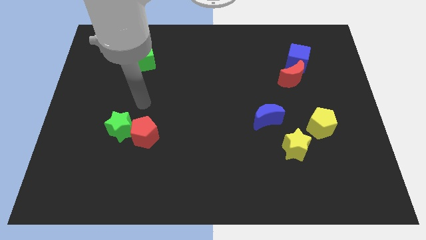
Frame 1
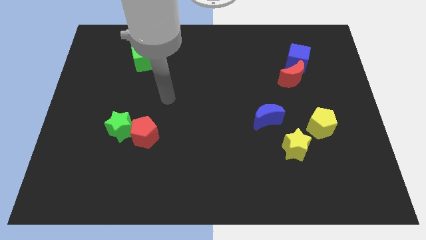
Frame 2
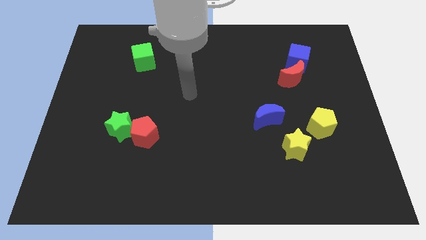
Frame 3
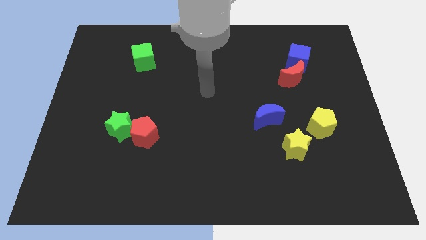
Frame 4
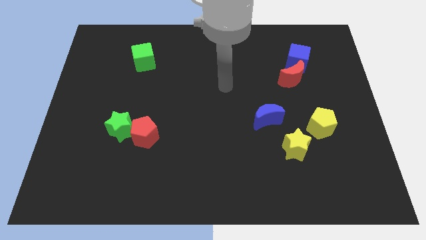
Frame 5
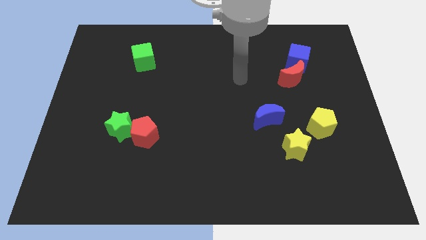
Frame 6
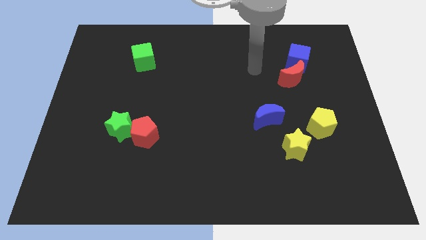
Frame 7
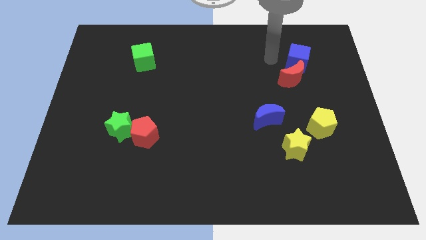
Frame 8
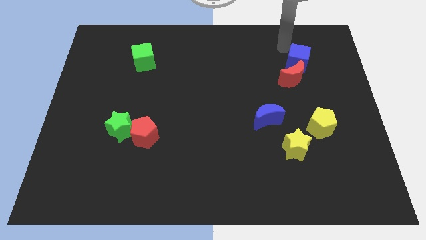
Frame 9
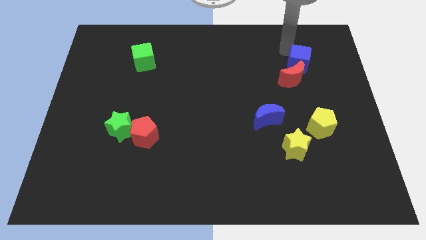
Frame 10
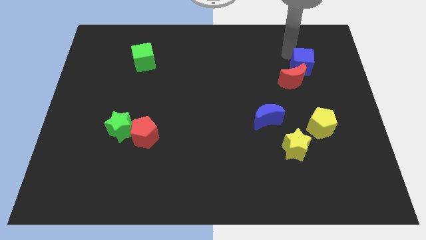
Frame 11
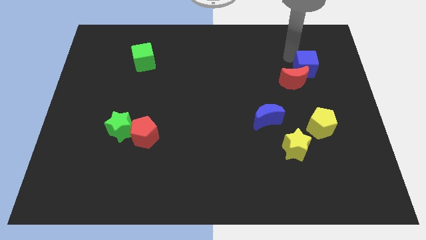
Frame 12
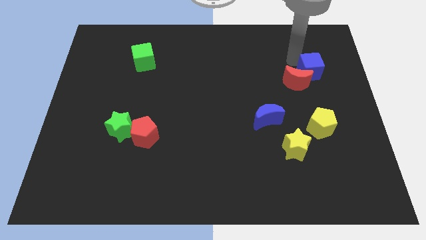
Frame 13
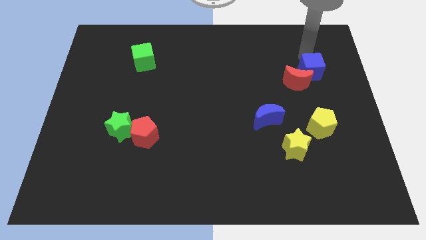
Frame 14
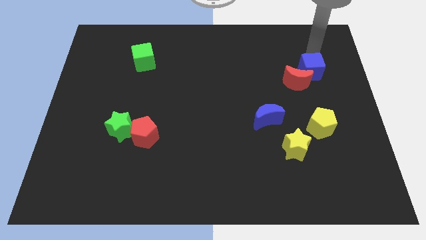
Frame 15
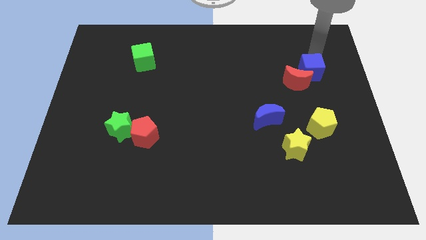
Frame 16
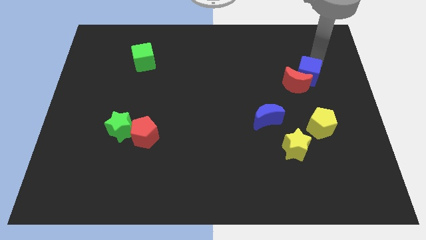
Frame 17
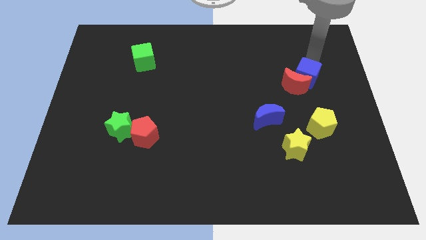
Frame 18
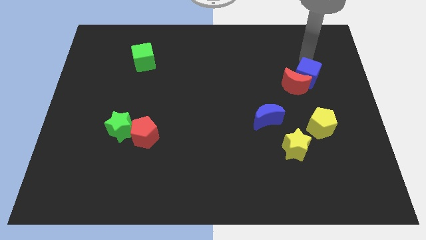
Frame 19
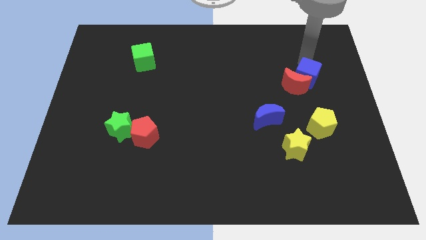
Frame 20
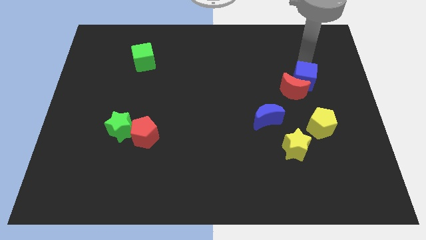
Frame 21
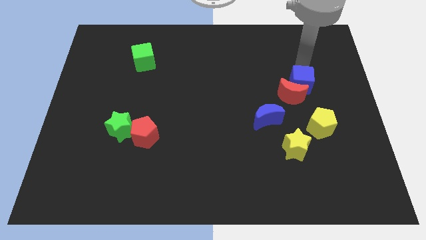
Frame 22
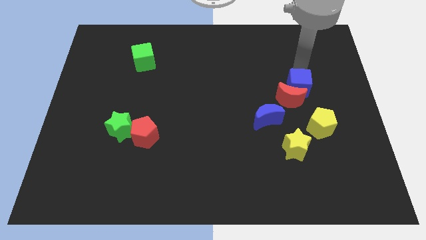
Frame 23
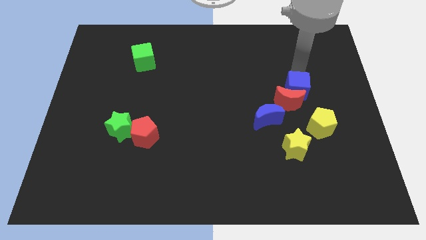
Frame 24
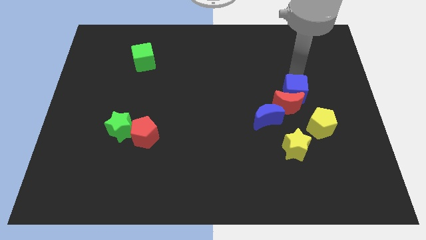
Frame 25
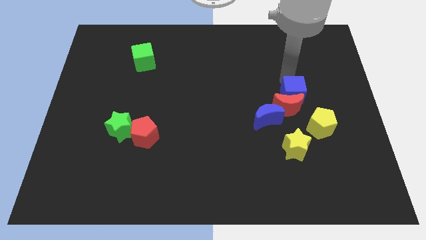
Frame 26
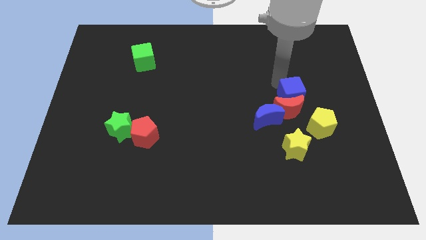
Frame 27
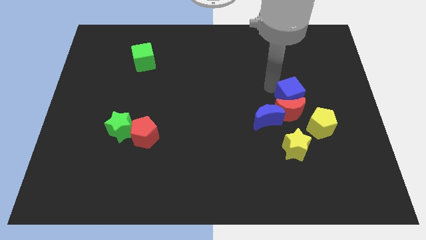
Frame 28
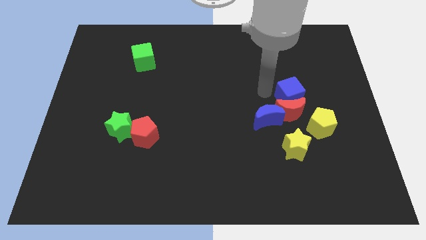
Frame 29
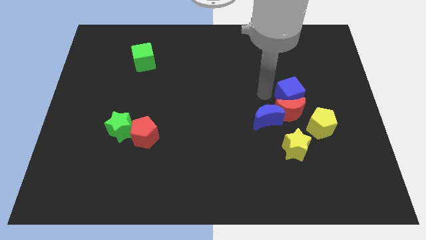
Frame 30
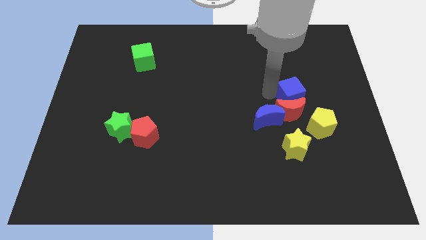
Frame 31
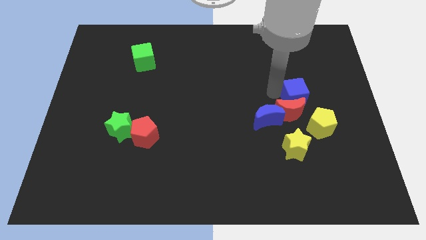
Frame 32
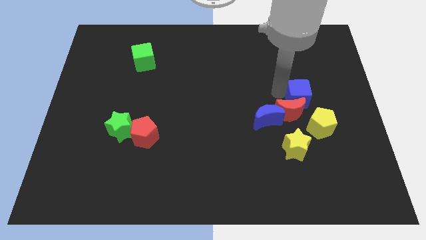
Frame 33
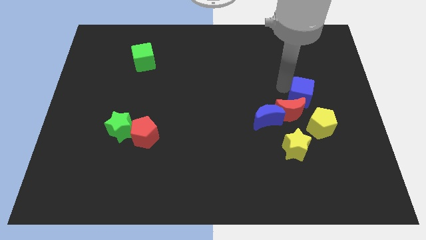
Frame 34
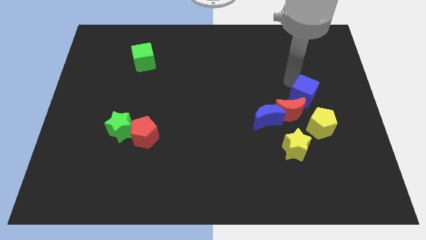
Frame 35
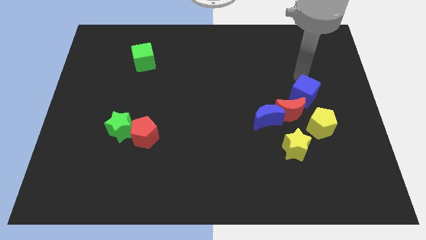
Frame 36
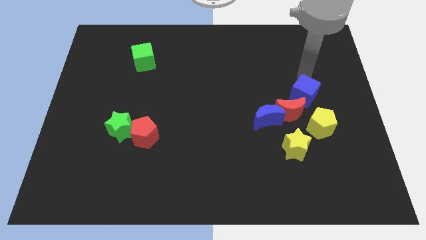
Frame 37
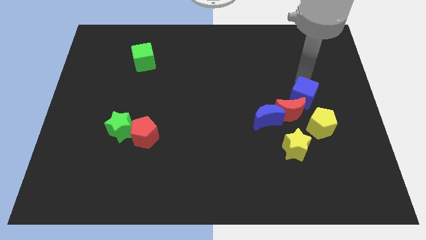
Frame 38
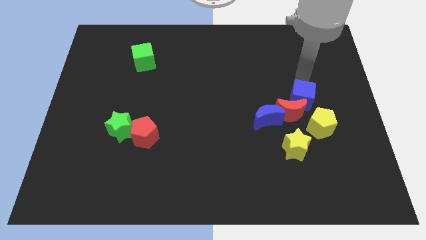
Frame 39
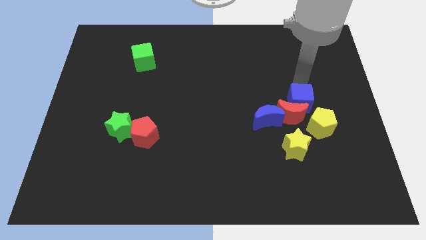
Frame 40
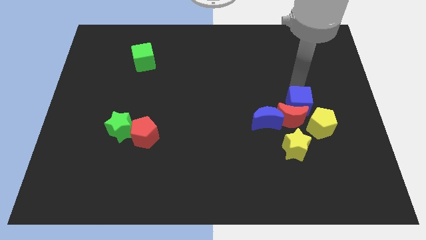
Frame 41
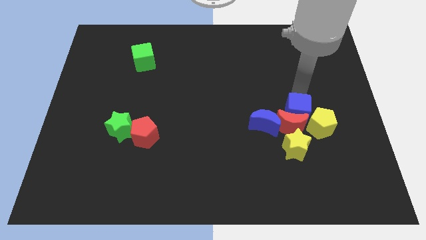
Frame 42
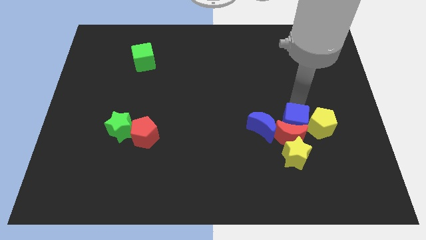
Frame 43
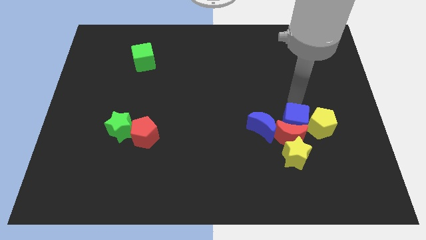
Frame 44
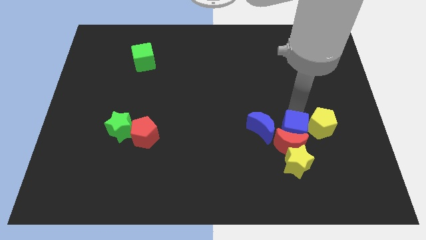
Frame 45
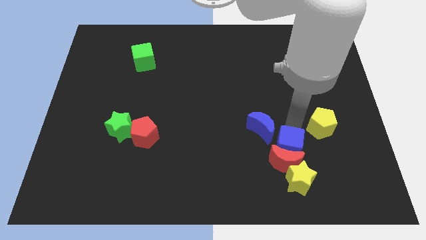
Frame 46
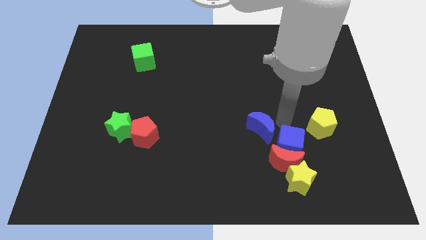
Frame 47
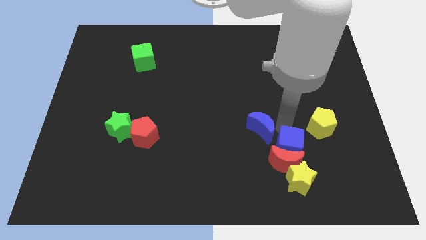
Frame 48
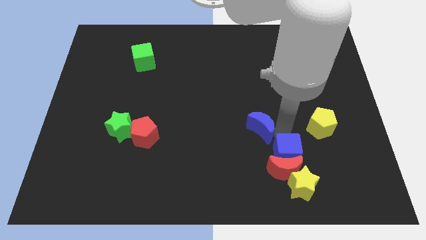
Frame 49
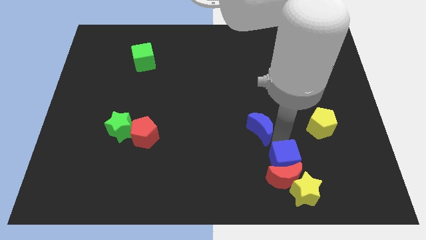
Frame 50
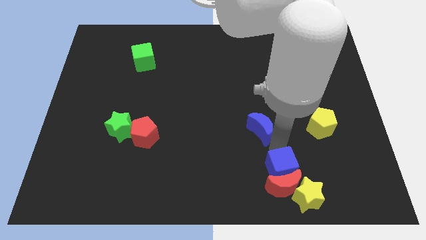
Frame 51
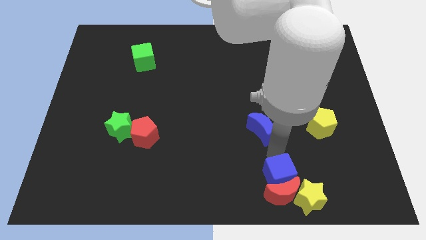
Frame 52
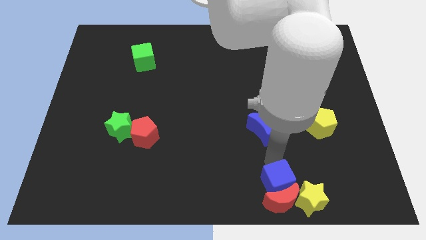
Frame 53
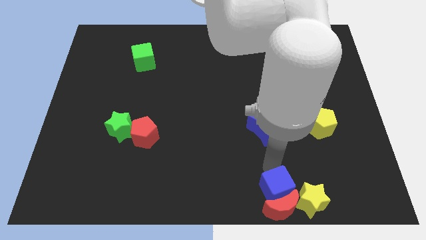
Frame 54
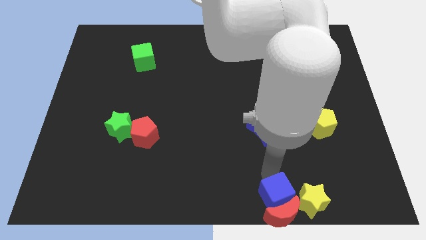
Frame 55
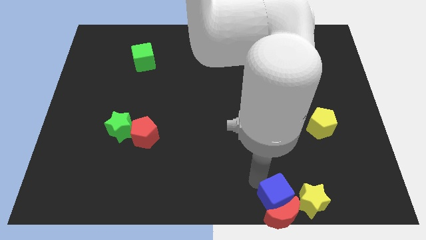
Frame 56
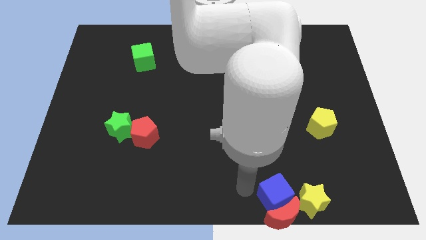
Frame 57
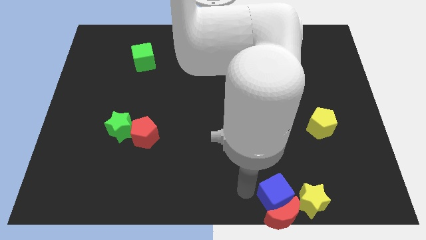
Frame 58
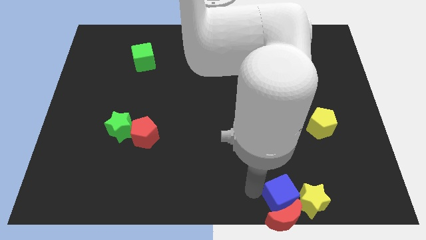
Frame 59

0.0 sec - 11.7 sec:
move the blue cube close to the yellow star
